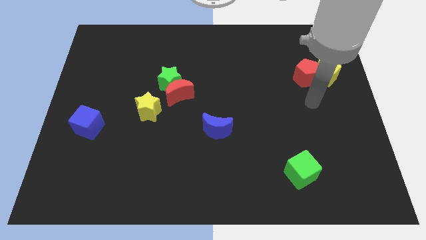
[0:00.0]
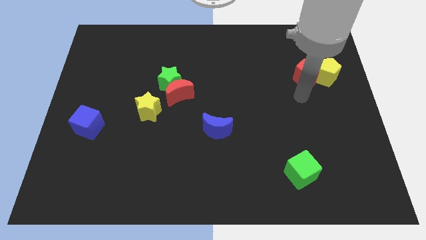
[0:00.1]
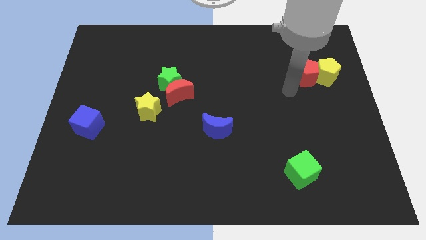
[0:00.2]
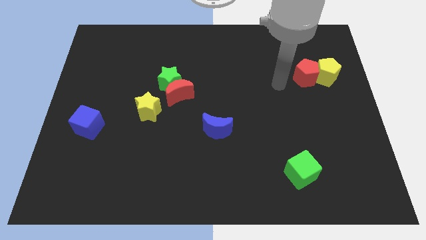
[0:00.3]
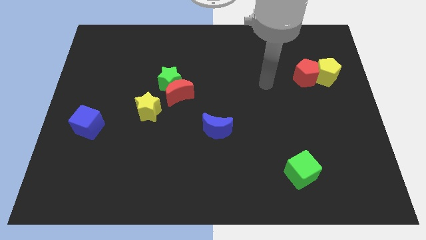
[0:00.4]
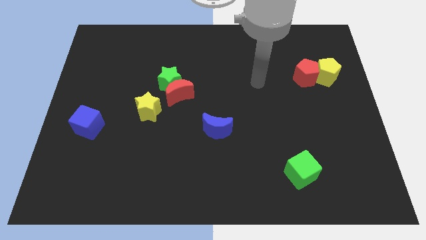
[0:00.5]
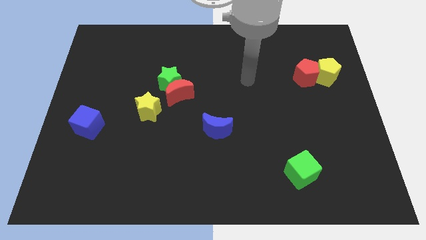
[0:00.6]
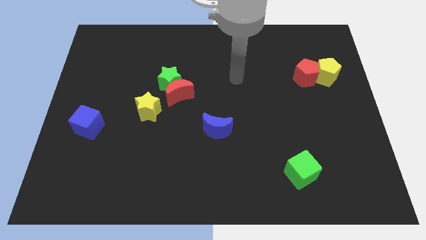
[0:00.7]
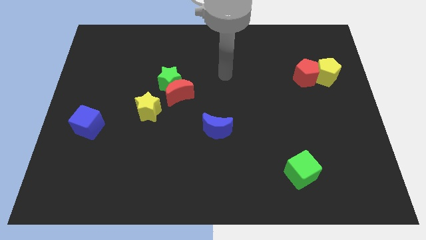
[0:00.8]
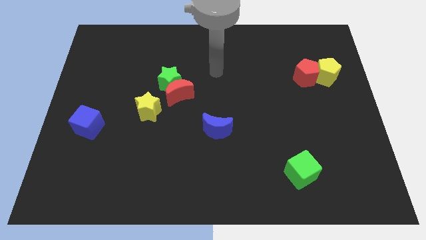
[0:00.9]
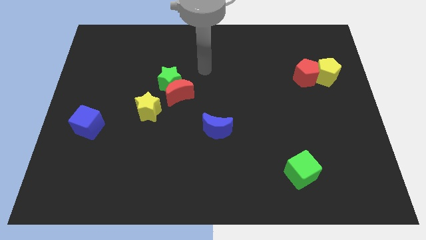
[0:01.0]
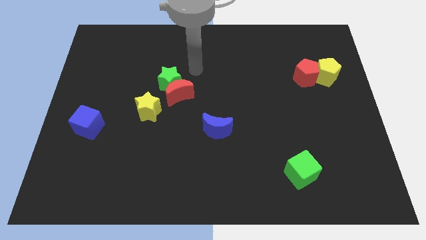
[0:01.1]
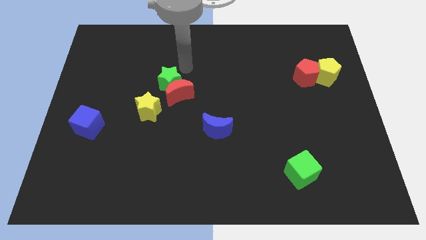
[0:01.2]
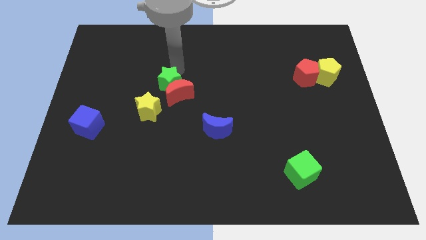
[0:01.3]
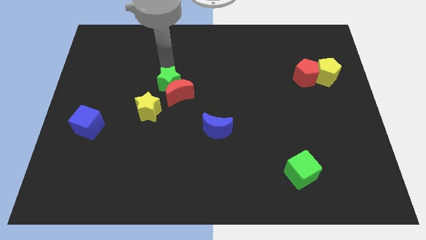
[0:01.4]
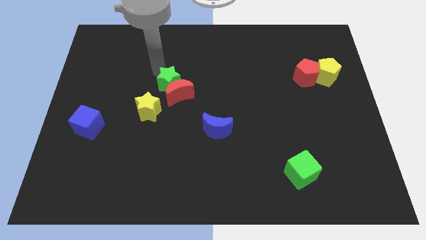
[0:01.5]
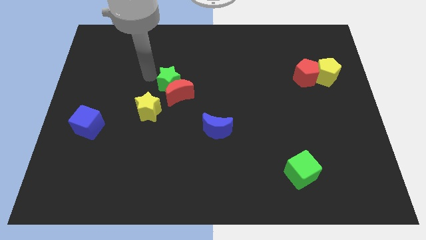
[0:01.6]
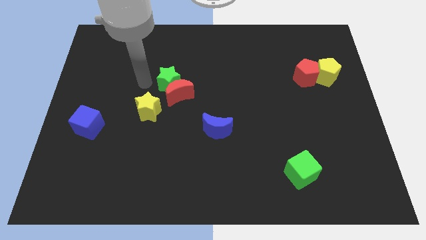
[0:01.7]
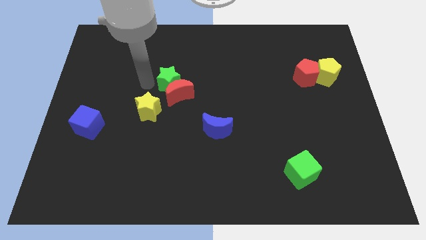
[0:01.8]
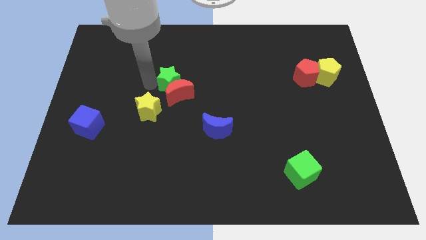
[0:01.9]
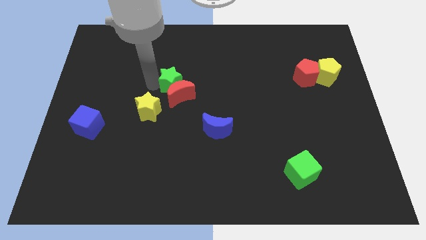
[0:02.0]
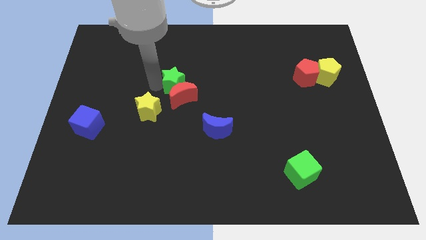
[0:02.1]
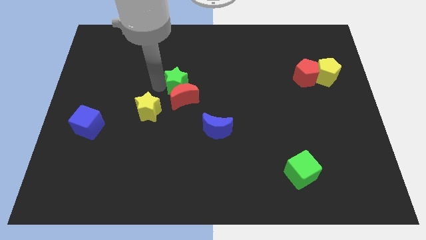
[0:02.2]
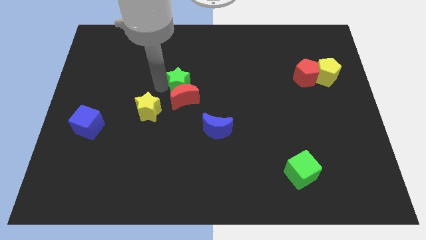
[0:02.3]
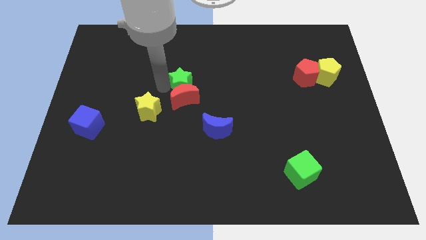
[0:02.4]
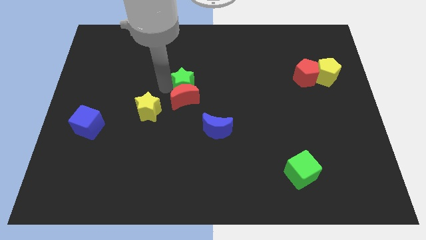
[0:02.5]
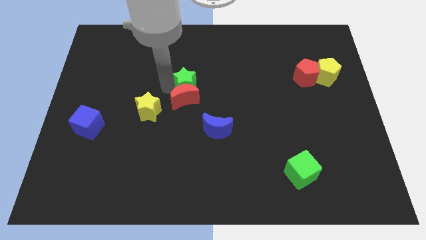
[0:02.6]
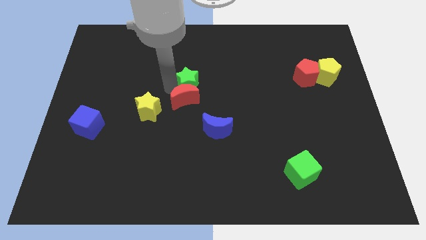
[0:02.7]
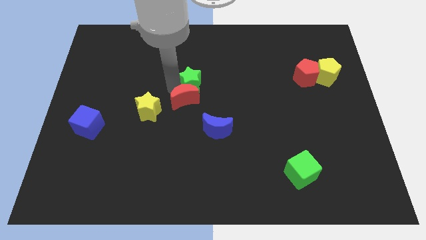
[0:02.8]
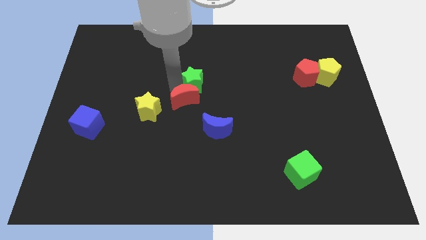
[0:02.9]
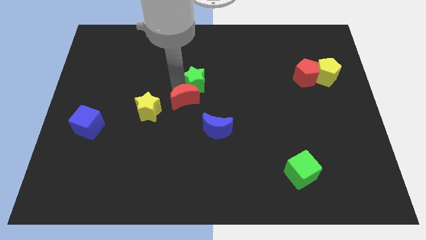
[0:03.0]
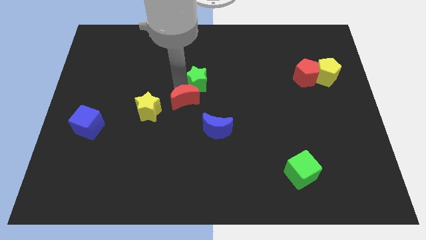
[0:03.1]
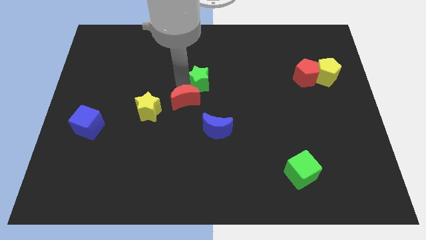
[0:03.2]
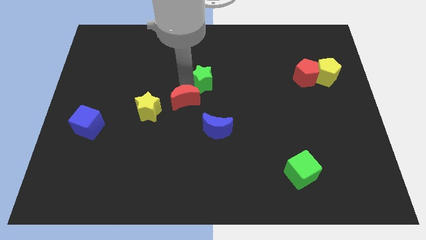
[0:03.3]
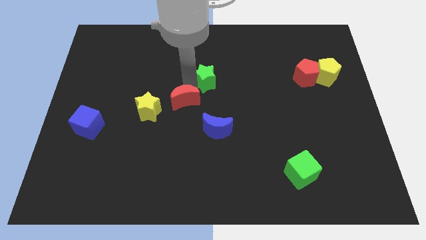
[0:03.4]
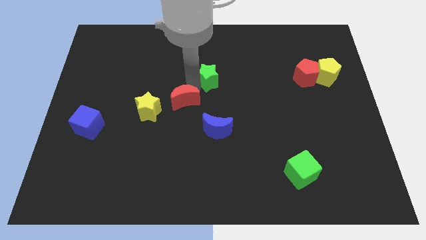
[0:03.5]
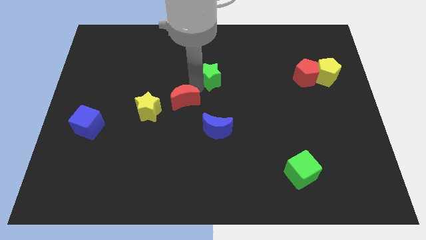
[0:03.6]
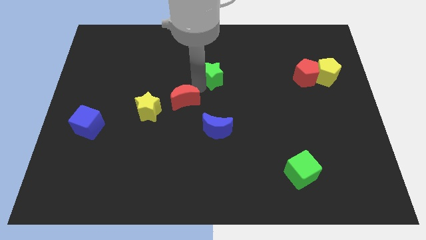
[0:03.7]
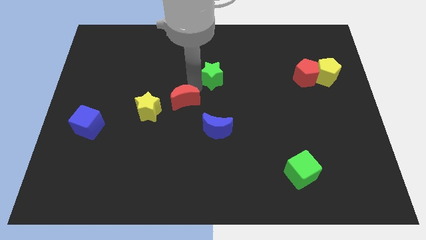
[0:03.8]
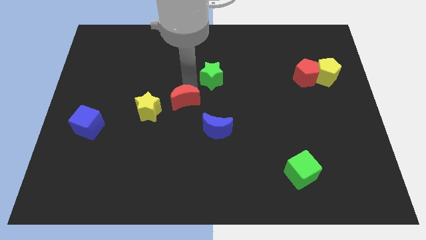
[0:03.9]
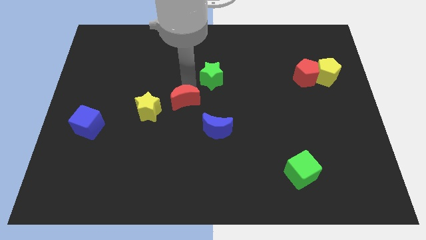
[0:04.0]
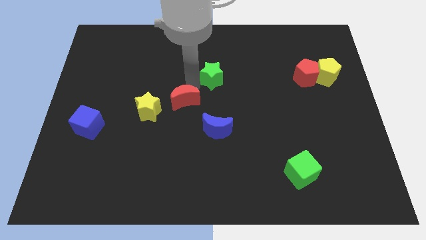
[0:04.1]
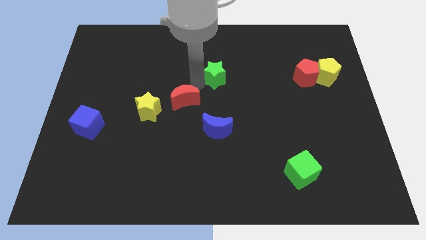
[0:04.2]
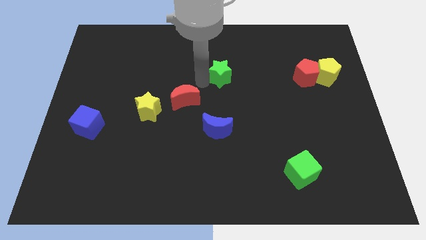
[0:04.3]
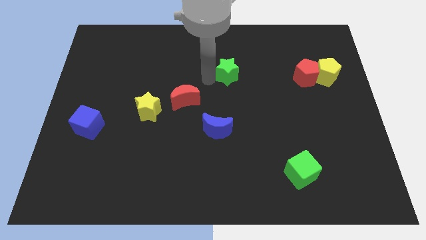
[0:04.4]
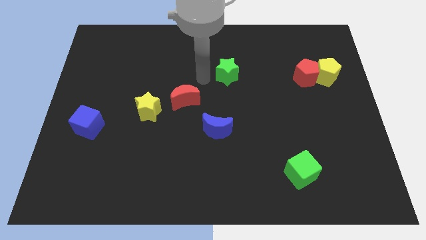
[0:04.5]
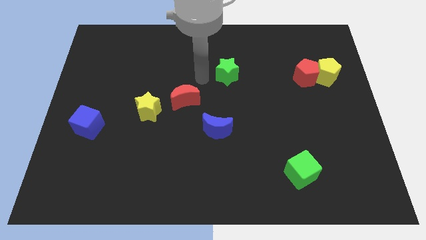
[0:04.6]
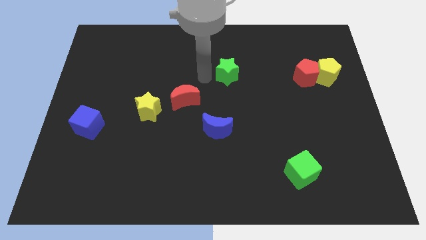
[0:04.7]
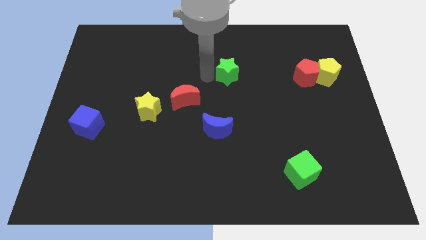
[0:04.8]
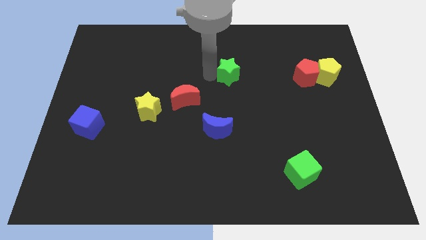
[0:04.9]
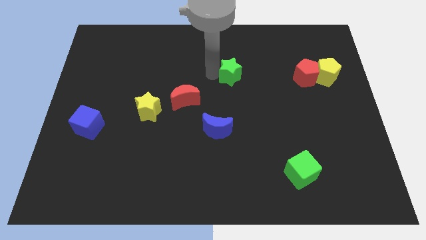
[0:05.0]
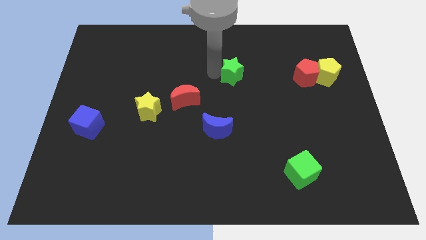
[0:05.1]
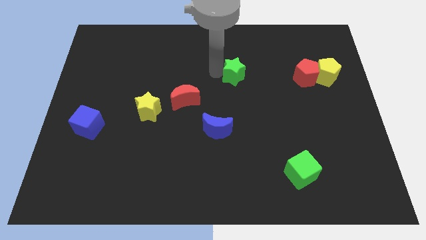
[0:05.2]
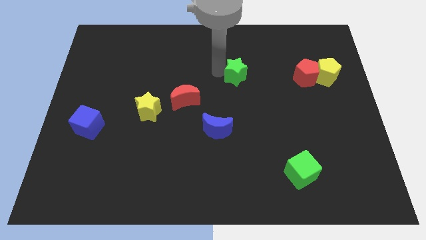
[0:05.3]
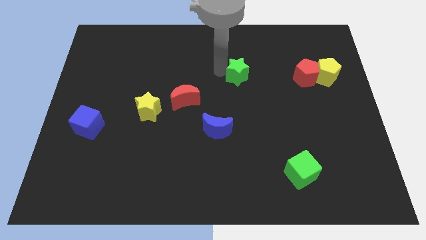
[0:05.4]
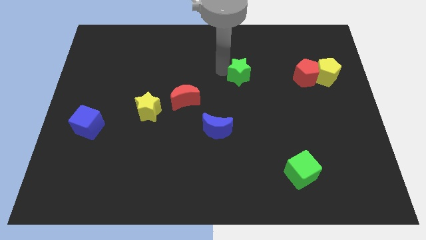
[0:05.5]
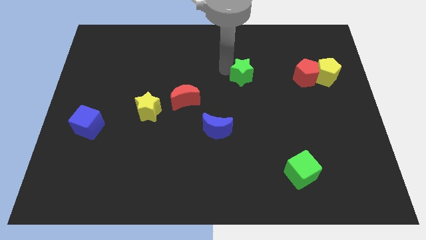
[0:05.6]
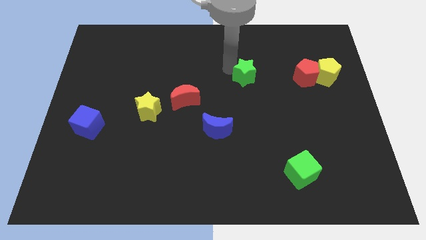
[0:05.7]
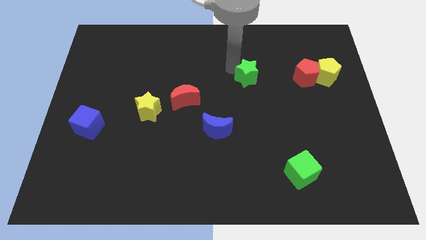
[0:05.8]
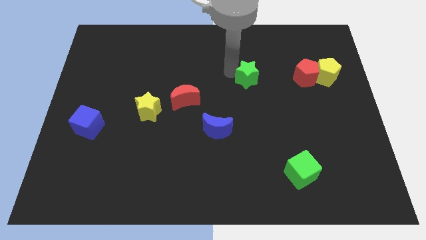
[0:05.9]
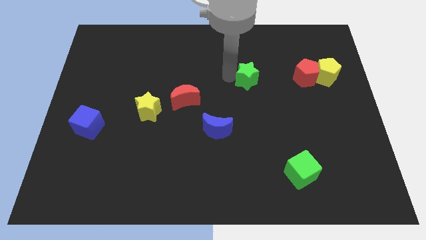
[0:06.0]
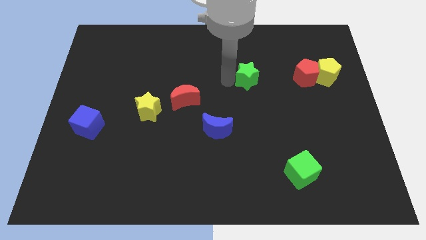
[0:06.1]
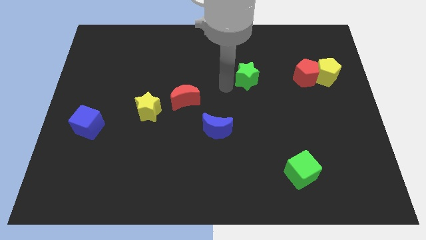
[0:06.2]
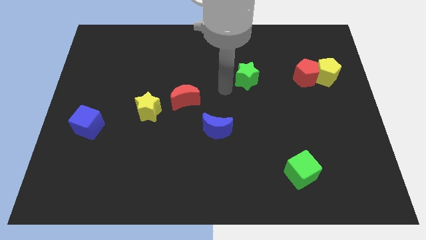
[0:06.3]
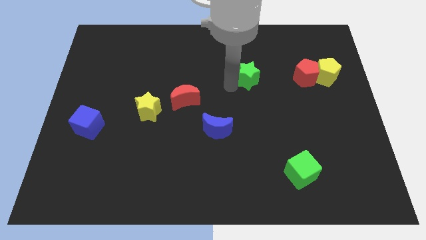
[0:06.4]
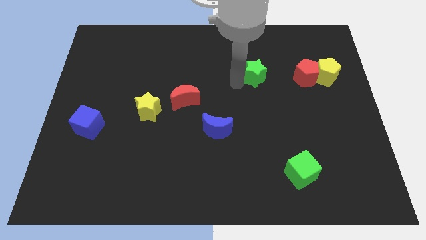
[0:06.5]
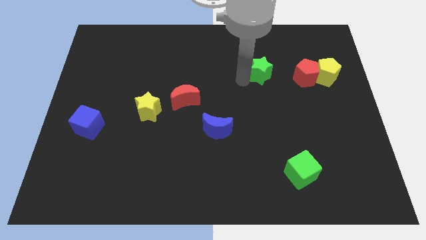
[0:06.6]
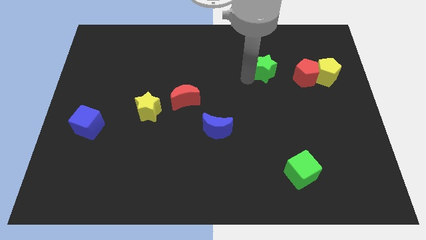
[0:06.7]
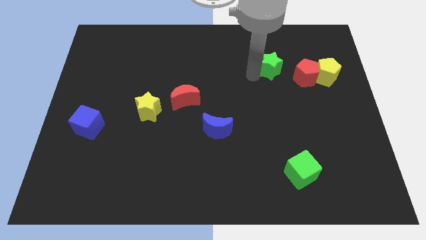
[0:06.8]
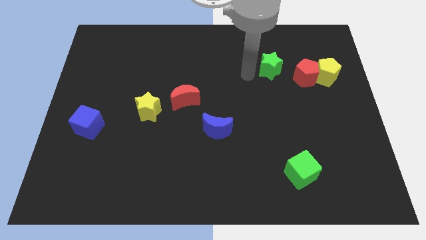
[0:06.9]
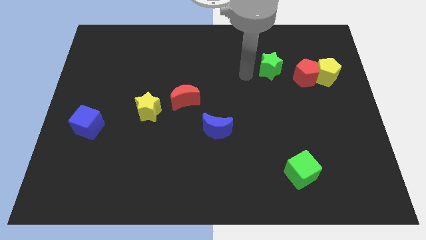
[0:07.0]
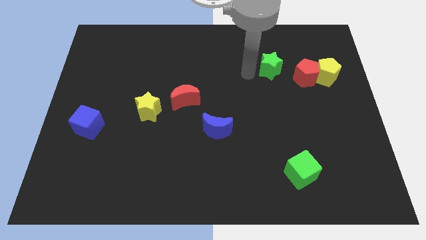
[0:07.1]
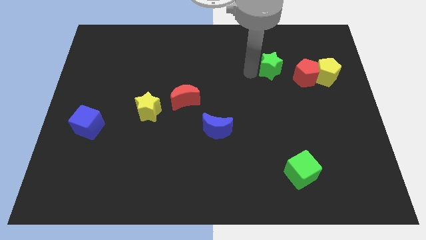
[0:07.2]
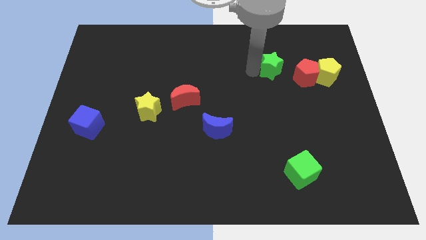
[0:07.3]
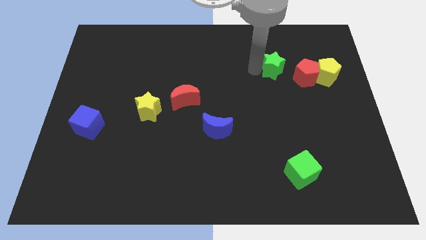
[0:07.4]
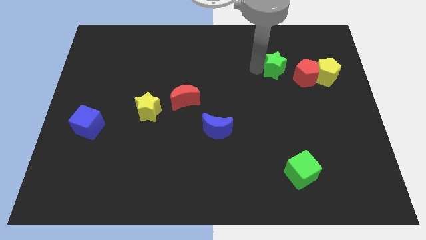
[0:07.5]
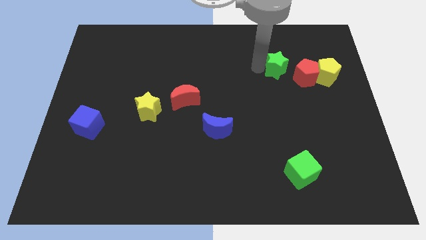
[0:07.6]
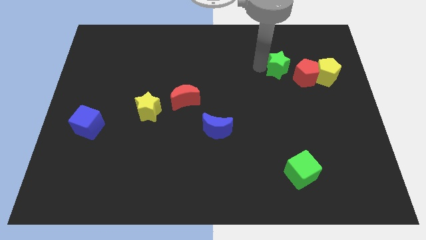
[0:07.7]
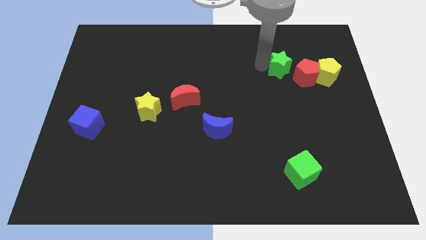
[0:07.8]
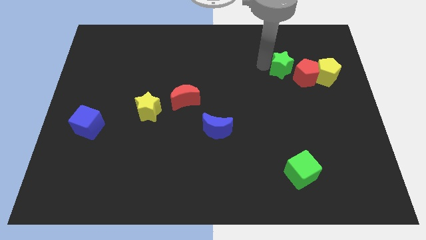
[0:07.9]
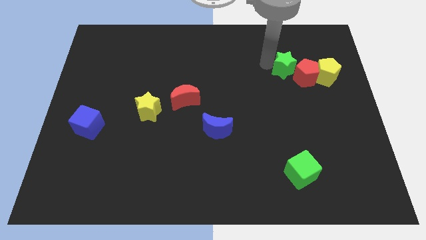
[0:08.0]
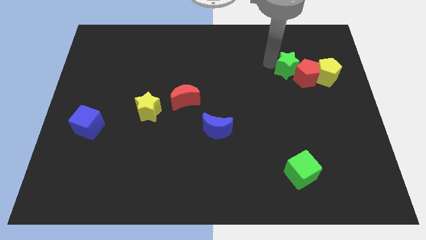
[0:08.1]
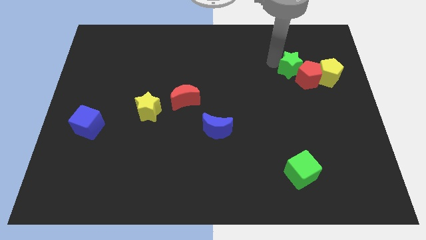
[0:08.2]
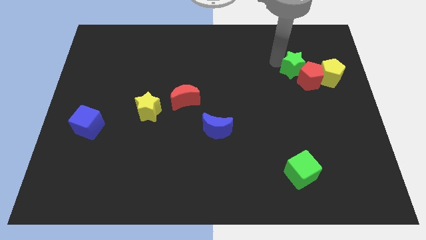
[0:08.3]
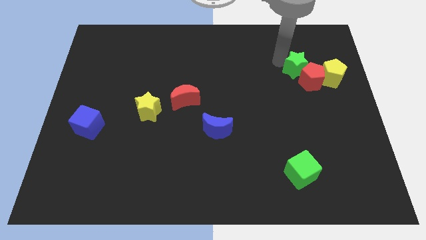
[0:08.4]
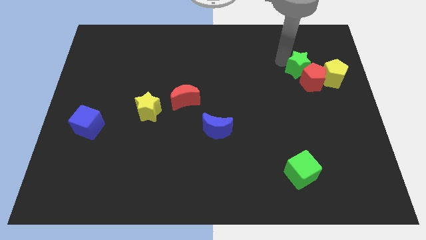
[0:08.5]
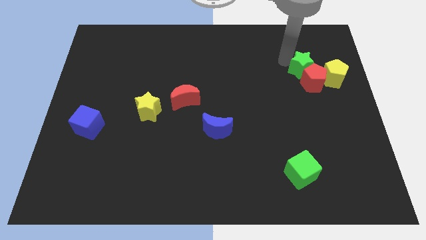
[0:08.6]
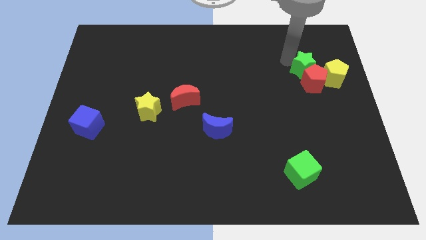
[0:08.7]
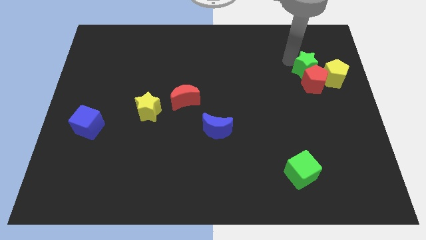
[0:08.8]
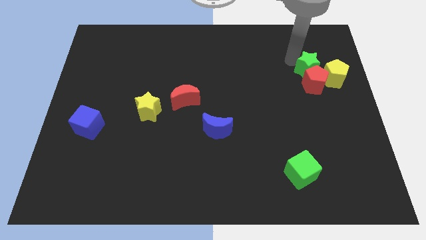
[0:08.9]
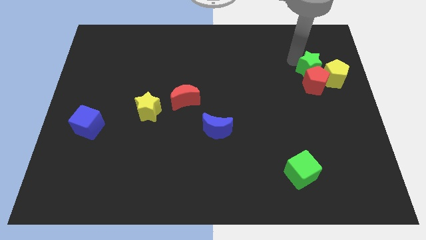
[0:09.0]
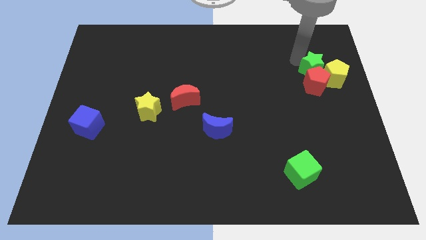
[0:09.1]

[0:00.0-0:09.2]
slide the green star close to the yellow pentagon
